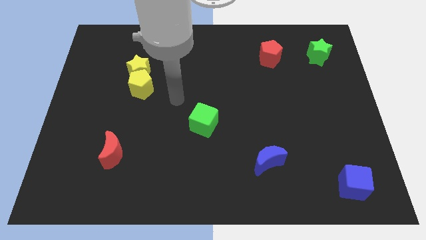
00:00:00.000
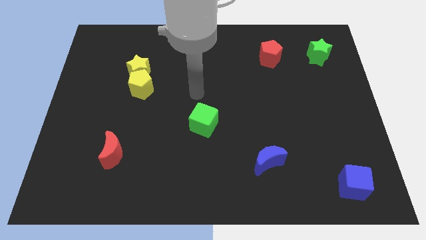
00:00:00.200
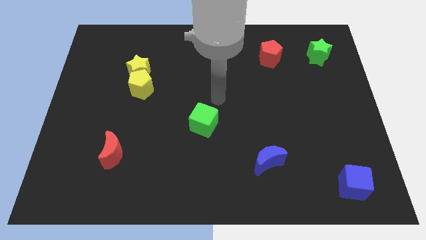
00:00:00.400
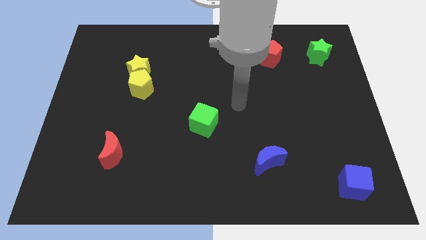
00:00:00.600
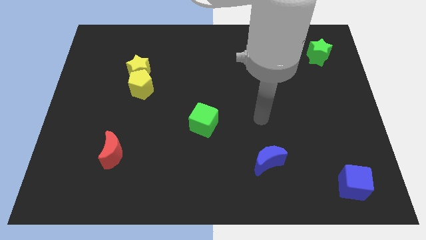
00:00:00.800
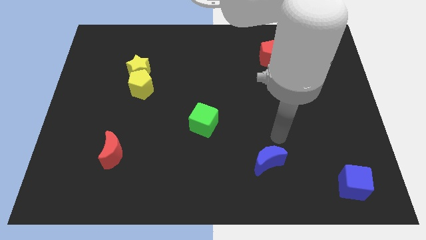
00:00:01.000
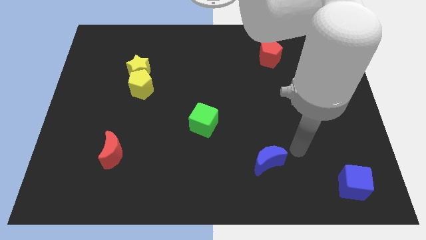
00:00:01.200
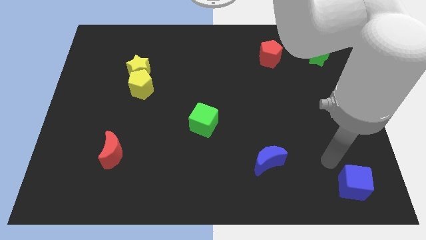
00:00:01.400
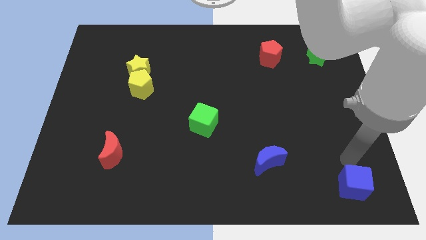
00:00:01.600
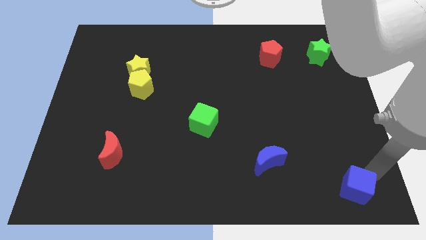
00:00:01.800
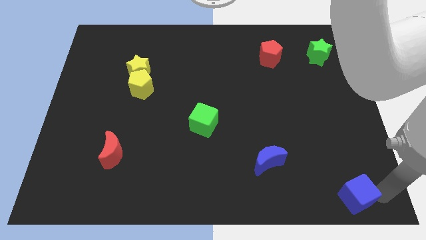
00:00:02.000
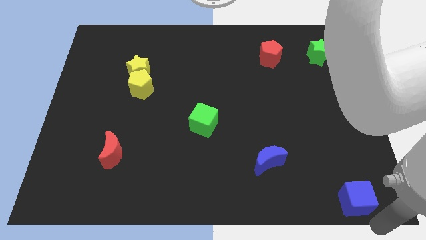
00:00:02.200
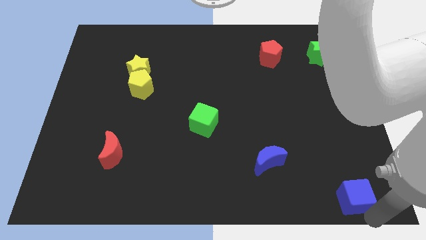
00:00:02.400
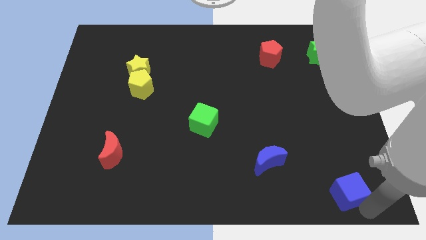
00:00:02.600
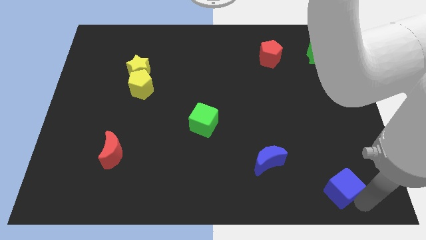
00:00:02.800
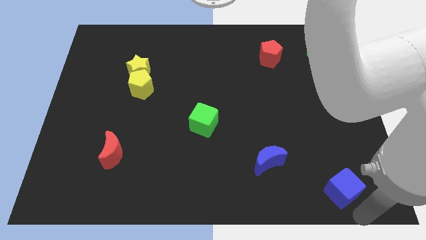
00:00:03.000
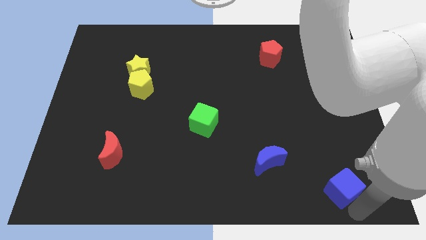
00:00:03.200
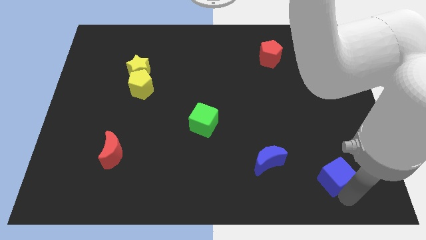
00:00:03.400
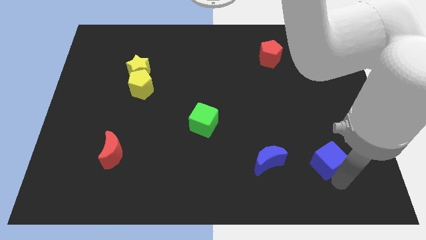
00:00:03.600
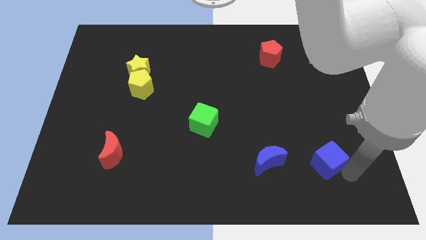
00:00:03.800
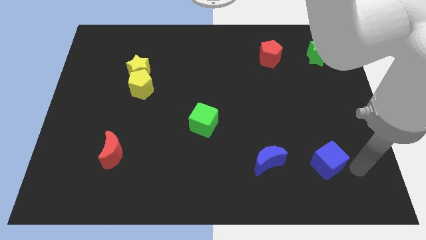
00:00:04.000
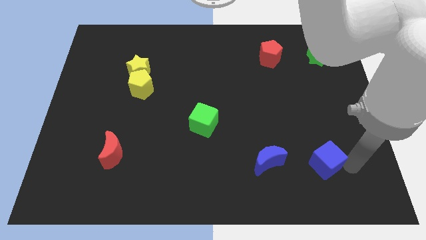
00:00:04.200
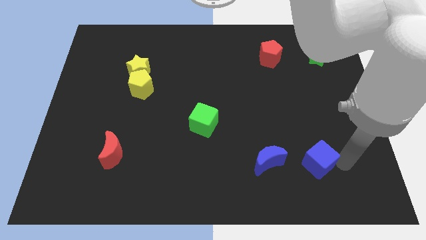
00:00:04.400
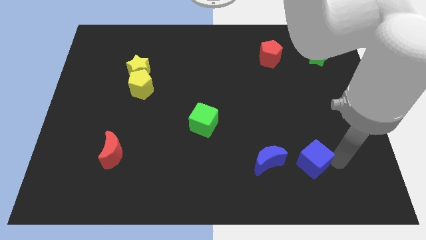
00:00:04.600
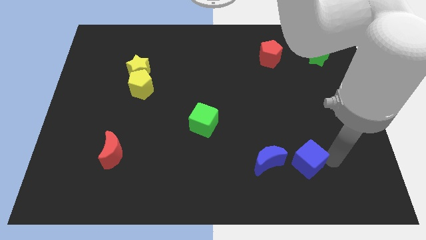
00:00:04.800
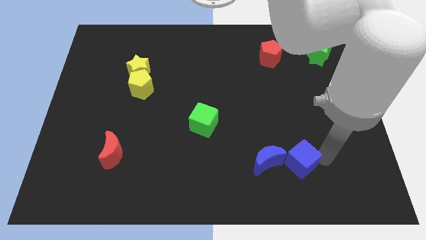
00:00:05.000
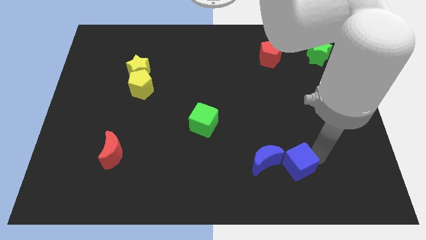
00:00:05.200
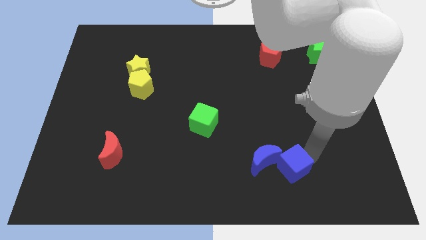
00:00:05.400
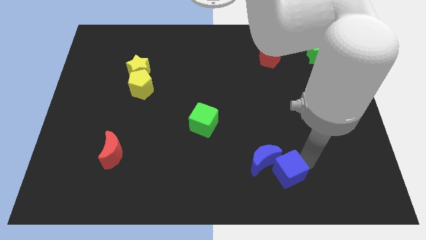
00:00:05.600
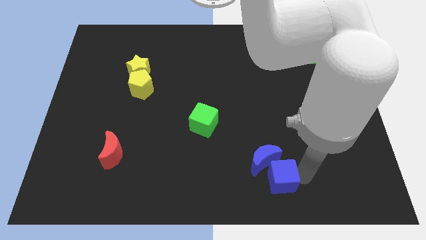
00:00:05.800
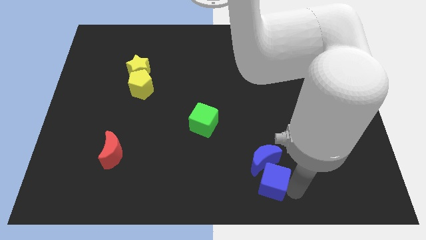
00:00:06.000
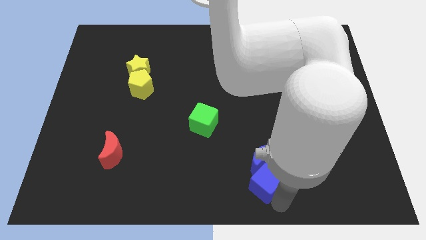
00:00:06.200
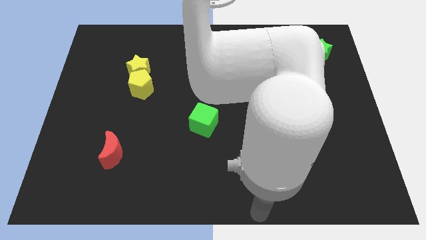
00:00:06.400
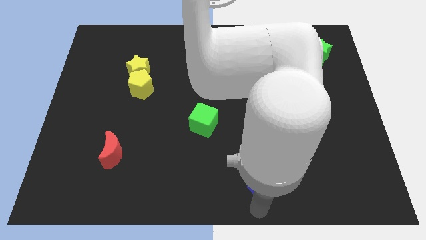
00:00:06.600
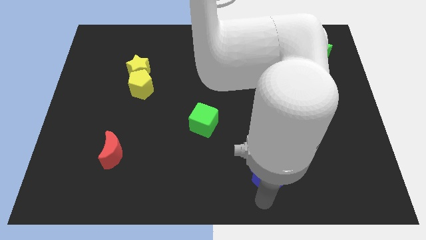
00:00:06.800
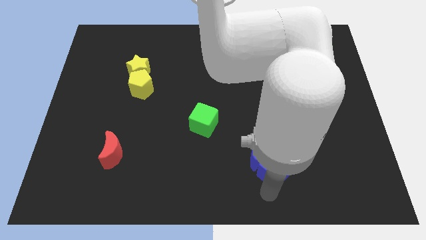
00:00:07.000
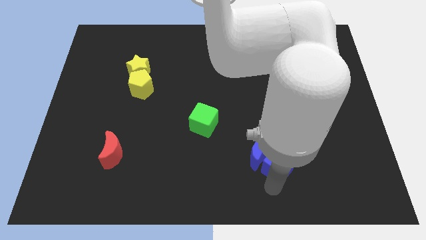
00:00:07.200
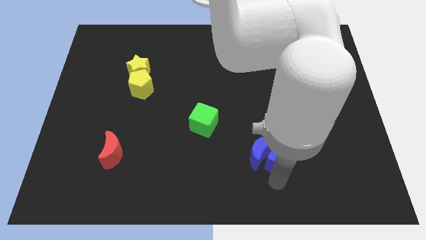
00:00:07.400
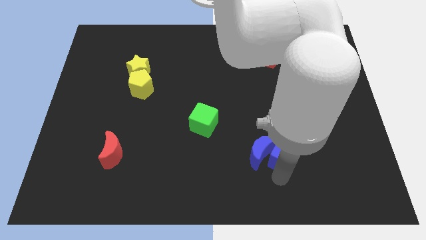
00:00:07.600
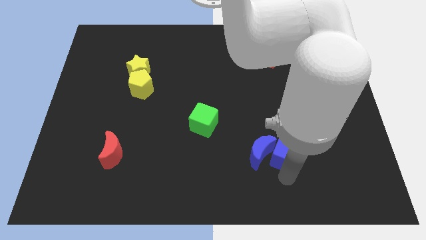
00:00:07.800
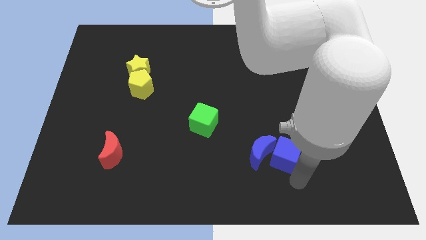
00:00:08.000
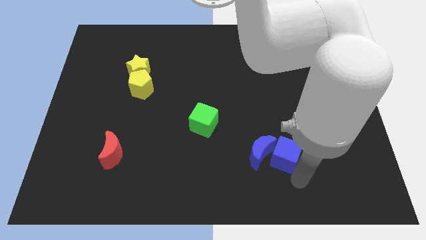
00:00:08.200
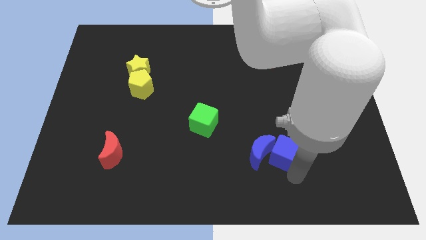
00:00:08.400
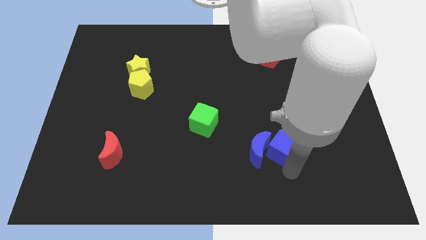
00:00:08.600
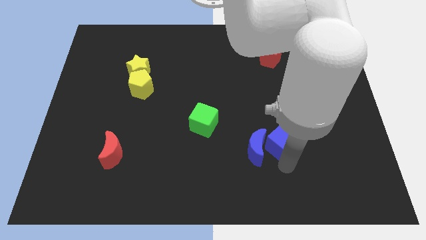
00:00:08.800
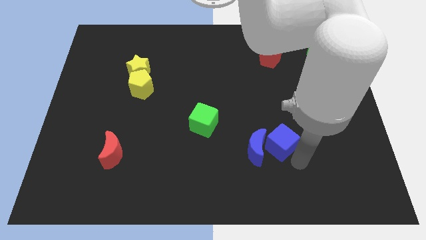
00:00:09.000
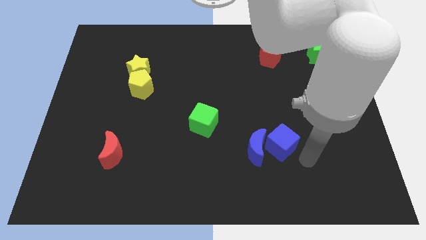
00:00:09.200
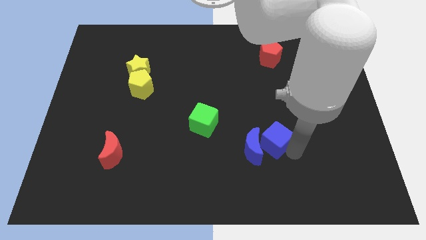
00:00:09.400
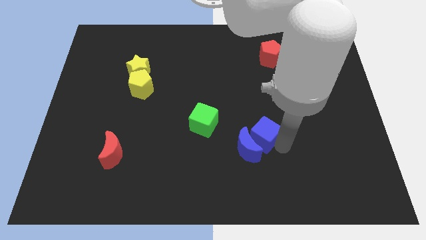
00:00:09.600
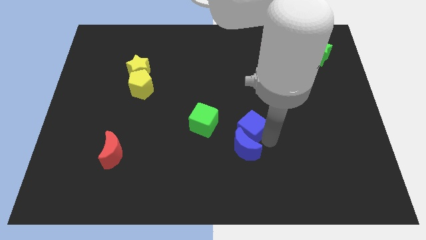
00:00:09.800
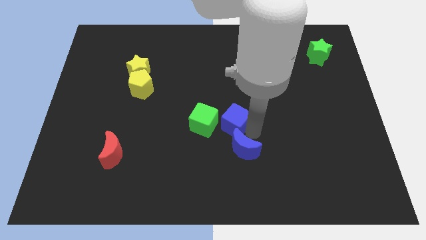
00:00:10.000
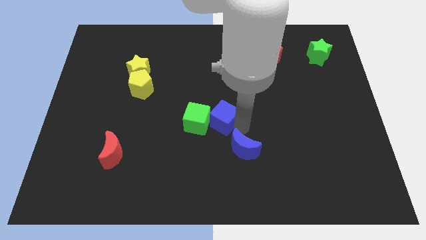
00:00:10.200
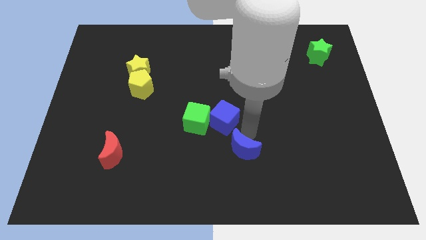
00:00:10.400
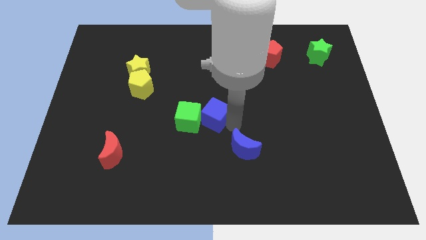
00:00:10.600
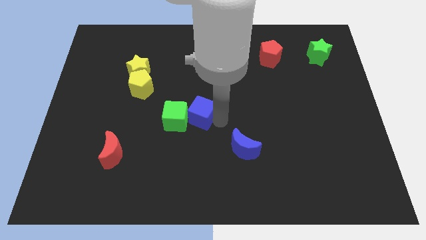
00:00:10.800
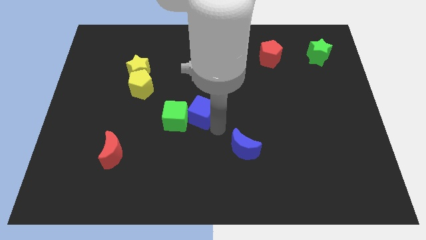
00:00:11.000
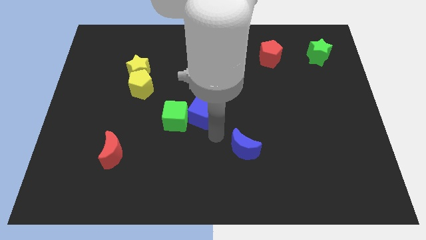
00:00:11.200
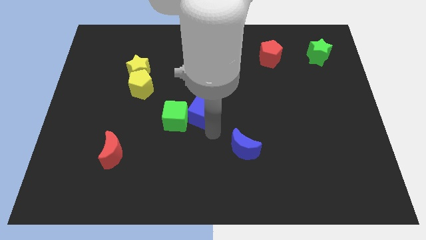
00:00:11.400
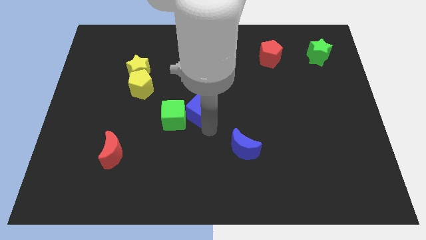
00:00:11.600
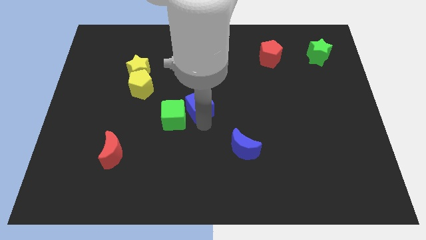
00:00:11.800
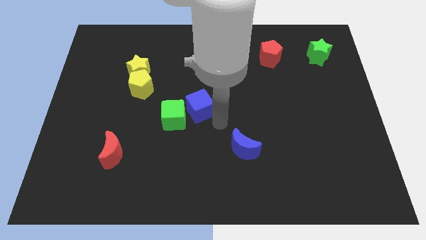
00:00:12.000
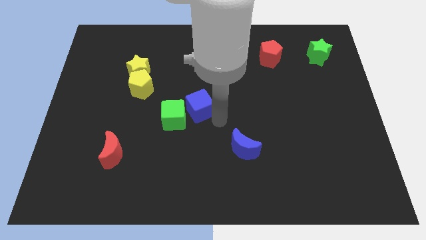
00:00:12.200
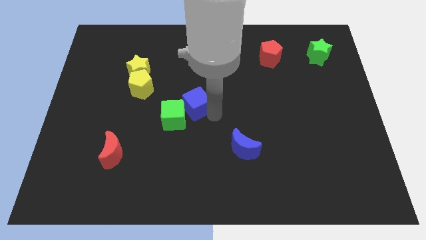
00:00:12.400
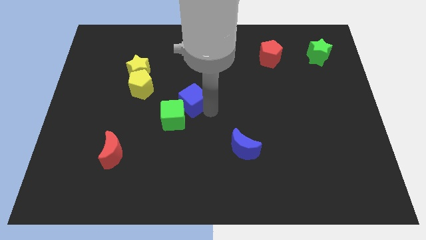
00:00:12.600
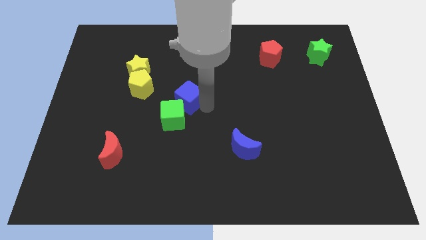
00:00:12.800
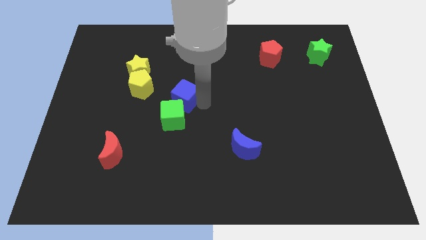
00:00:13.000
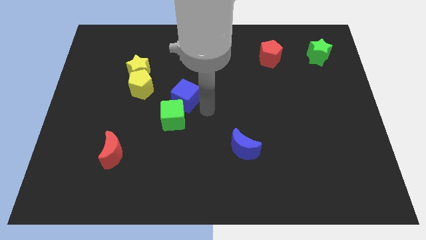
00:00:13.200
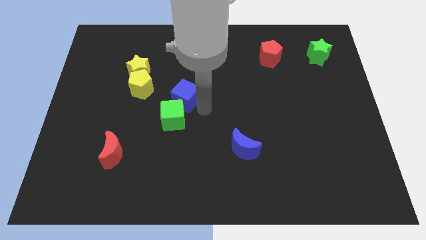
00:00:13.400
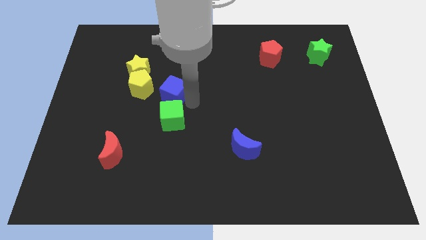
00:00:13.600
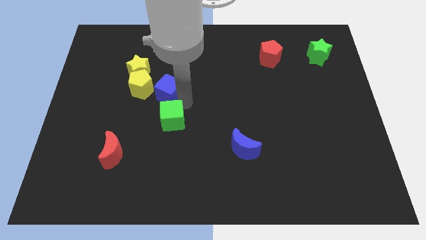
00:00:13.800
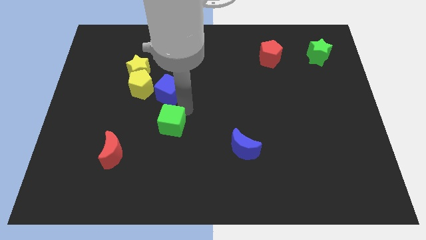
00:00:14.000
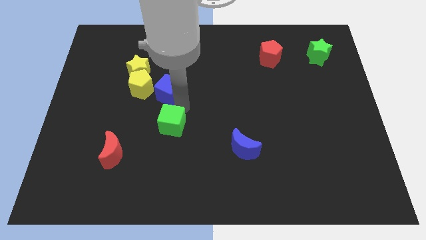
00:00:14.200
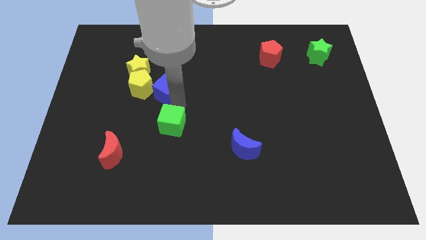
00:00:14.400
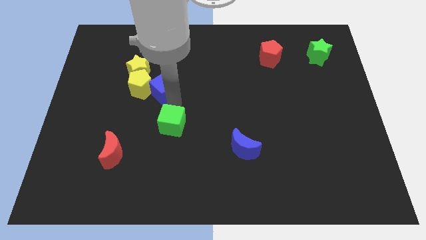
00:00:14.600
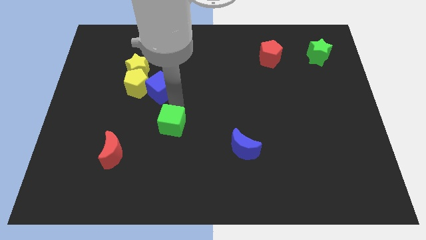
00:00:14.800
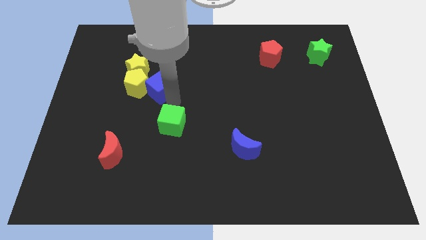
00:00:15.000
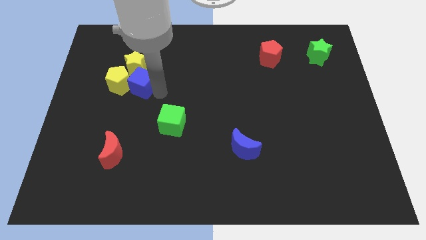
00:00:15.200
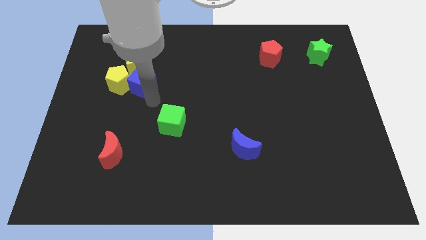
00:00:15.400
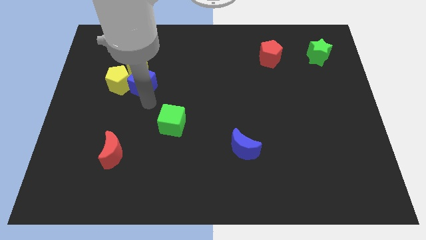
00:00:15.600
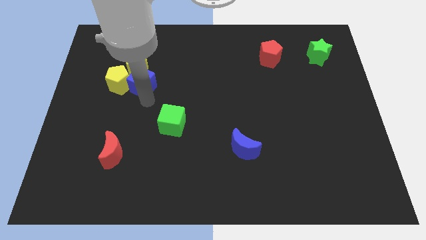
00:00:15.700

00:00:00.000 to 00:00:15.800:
slide the blue cube towards the yellow star
